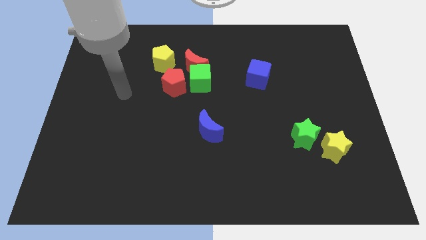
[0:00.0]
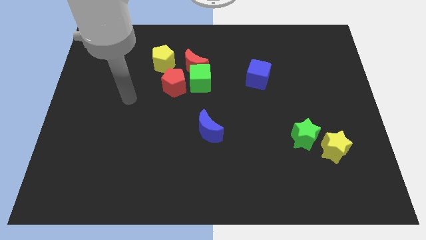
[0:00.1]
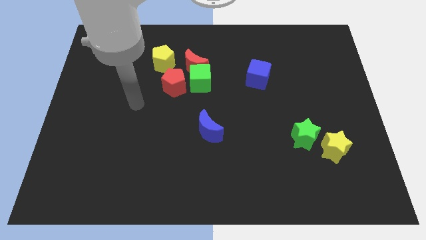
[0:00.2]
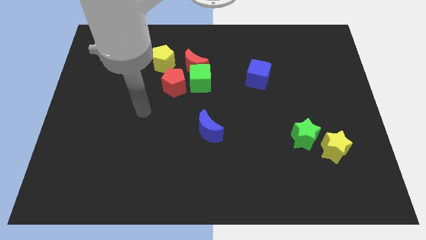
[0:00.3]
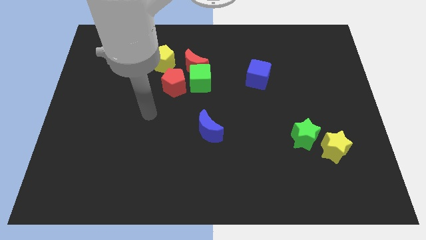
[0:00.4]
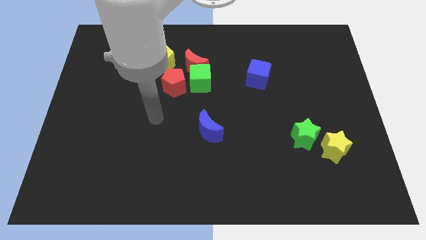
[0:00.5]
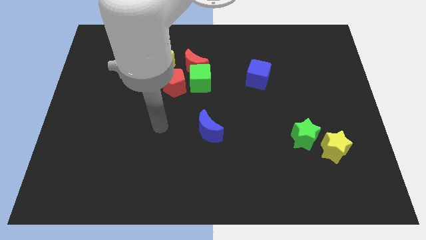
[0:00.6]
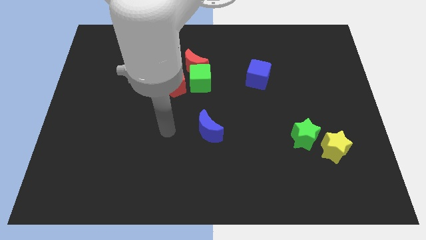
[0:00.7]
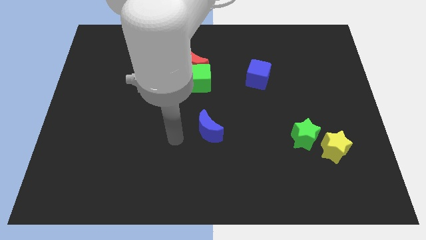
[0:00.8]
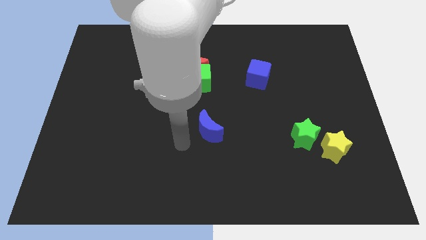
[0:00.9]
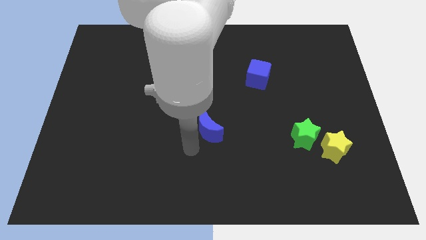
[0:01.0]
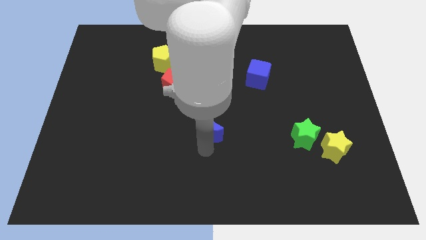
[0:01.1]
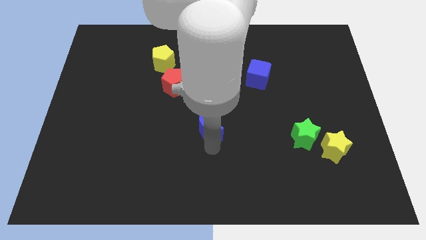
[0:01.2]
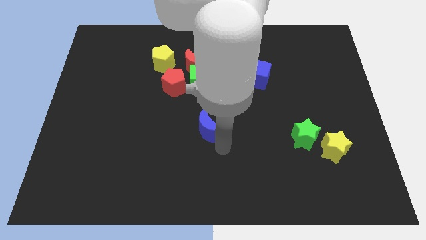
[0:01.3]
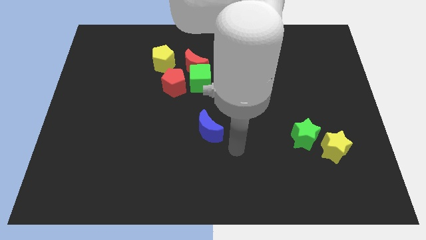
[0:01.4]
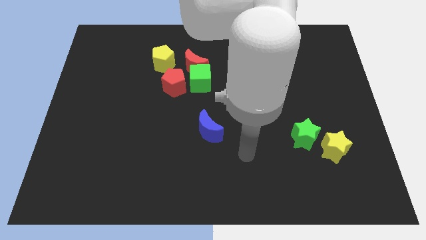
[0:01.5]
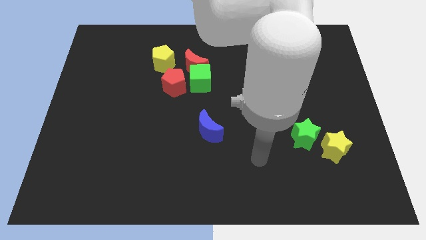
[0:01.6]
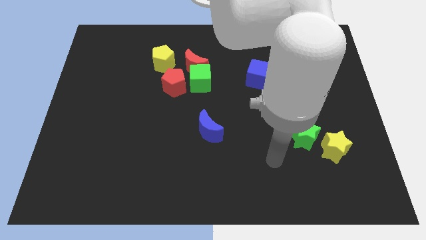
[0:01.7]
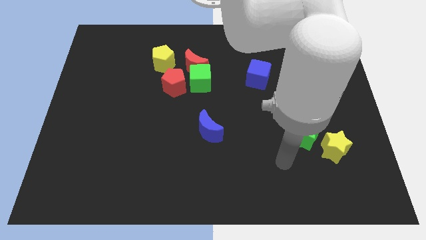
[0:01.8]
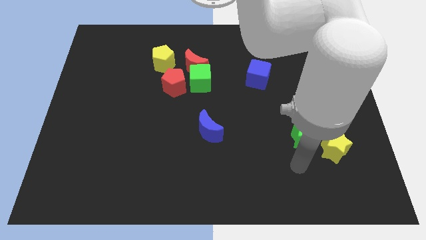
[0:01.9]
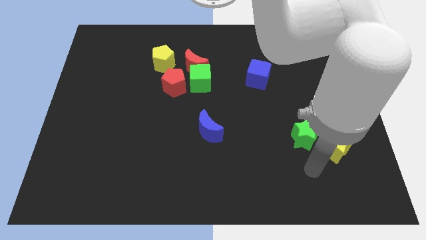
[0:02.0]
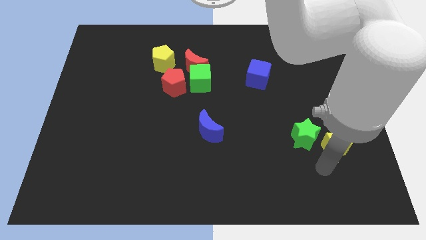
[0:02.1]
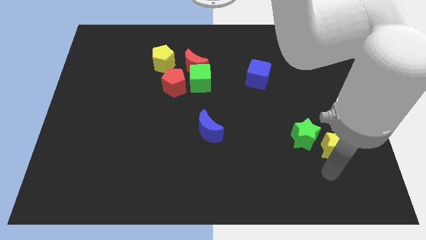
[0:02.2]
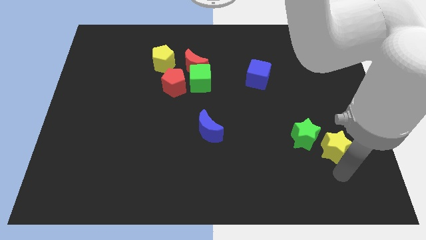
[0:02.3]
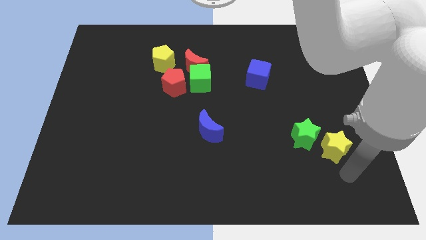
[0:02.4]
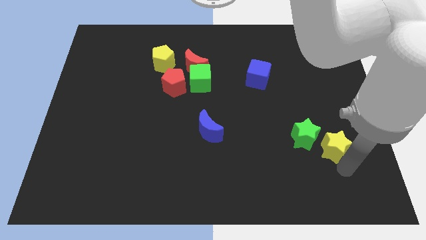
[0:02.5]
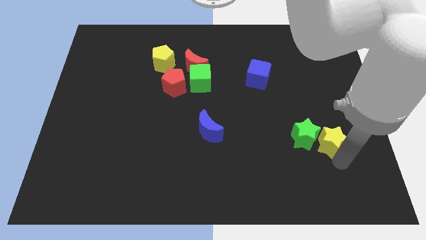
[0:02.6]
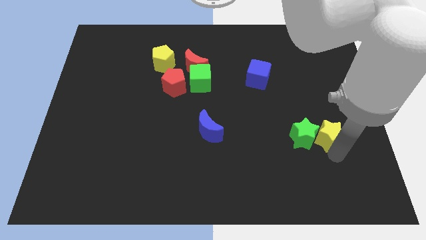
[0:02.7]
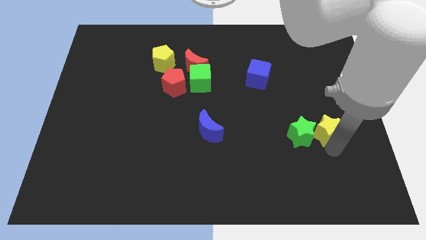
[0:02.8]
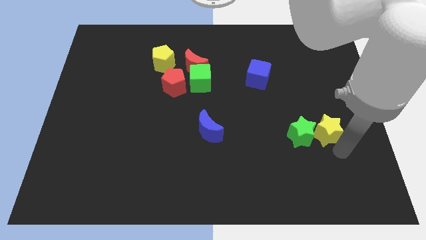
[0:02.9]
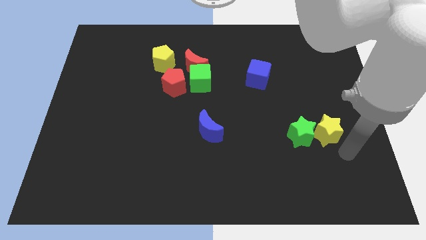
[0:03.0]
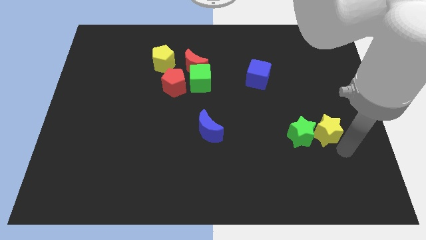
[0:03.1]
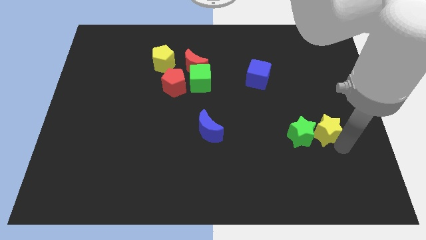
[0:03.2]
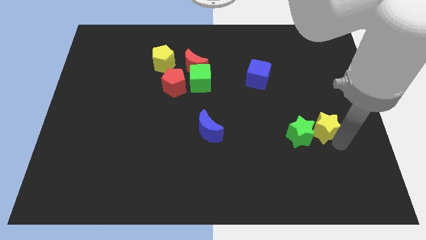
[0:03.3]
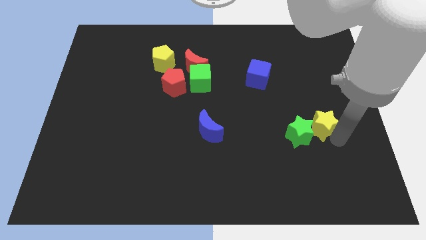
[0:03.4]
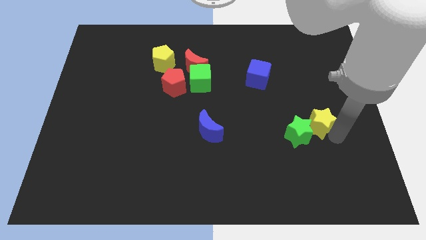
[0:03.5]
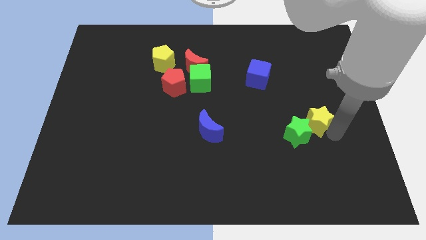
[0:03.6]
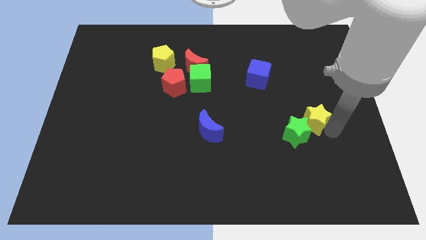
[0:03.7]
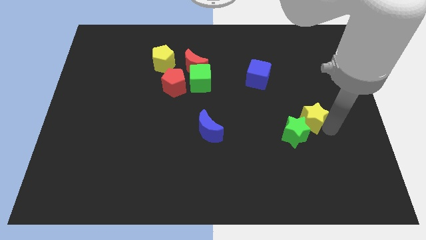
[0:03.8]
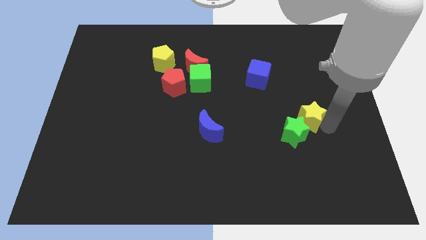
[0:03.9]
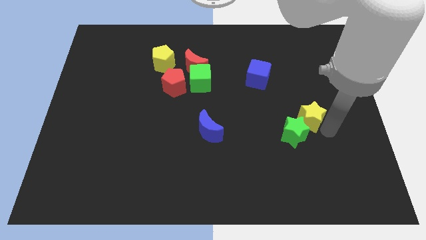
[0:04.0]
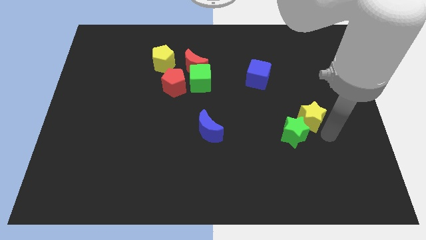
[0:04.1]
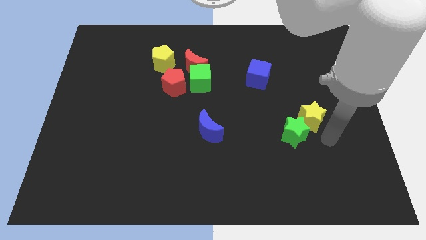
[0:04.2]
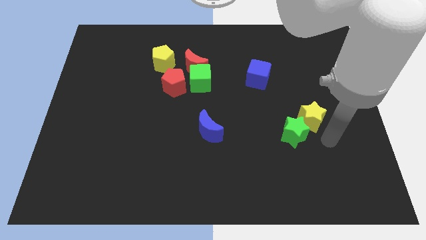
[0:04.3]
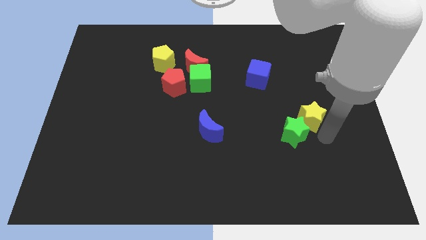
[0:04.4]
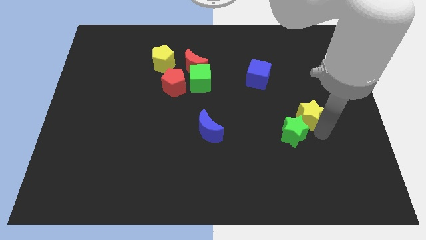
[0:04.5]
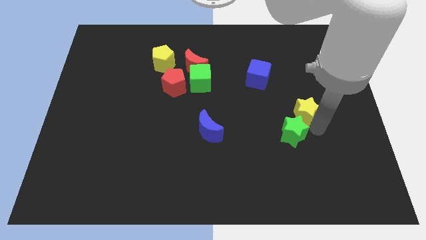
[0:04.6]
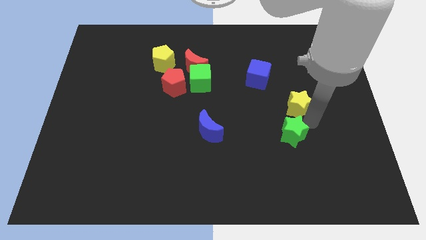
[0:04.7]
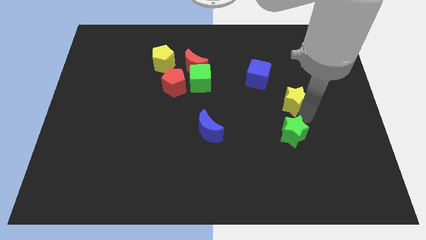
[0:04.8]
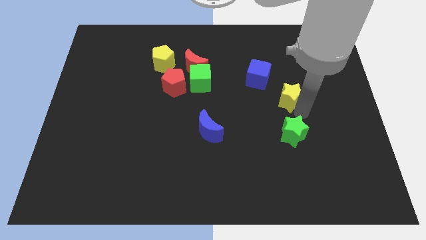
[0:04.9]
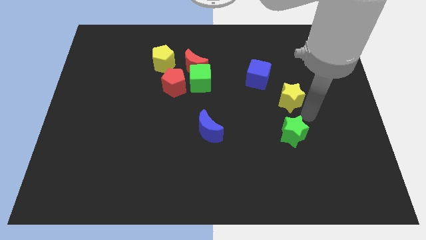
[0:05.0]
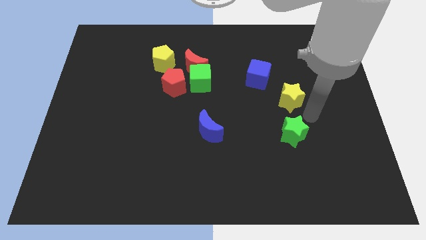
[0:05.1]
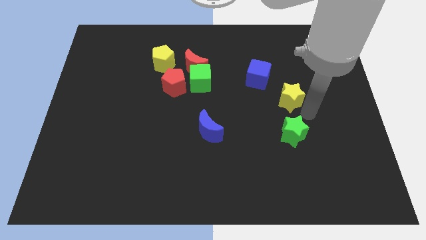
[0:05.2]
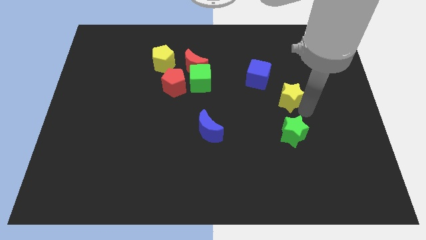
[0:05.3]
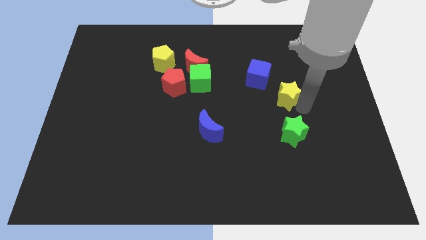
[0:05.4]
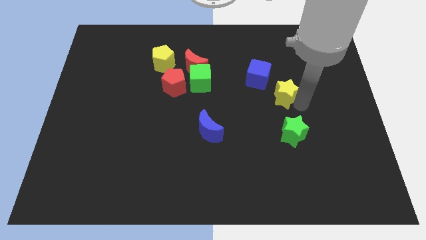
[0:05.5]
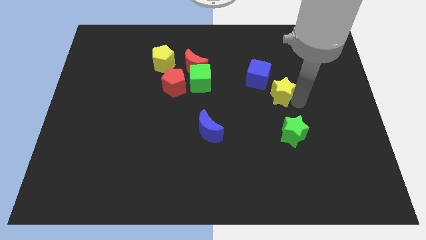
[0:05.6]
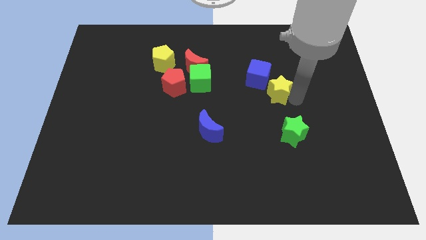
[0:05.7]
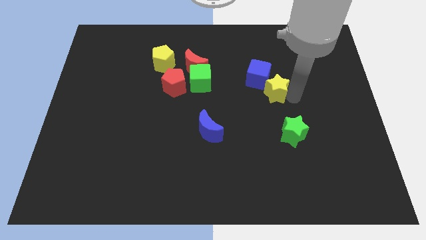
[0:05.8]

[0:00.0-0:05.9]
put the yellow star close to the blue cube
